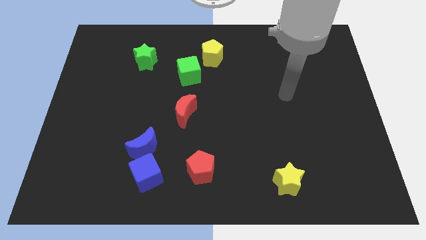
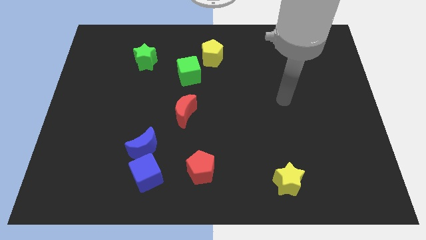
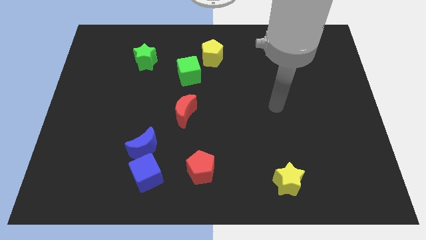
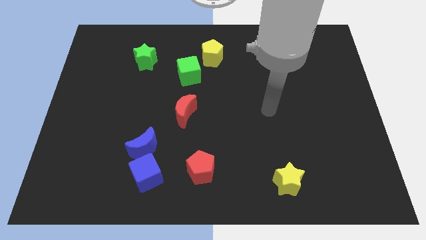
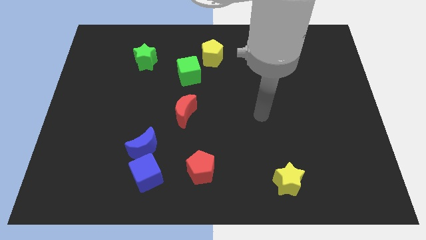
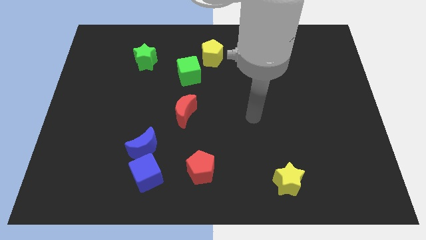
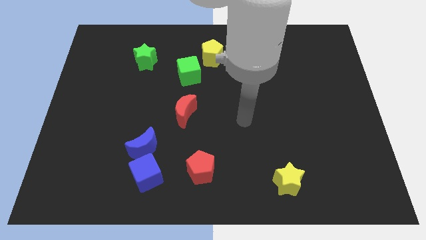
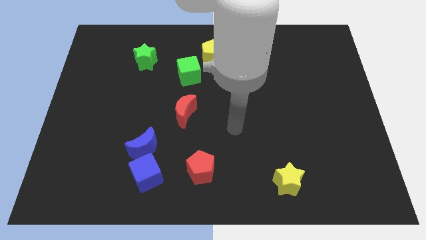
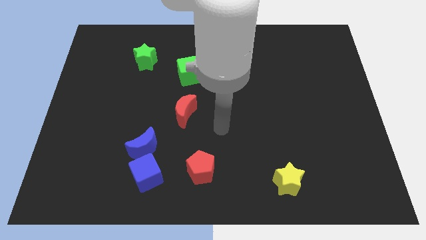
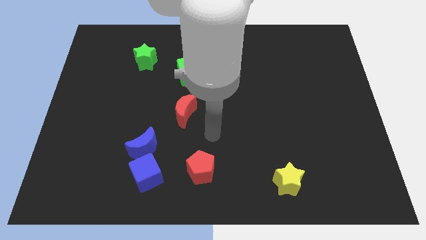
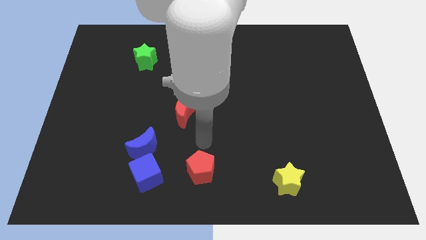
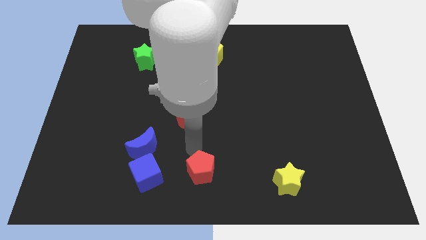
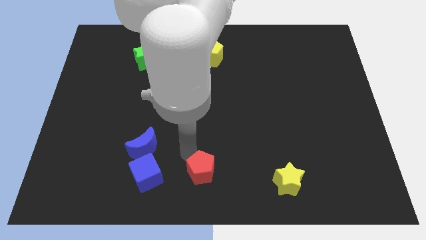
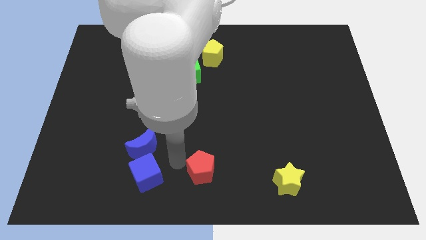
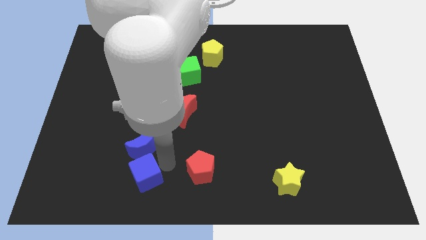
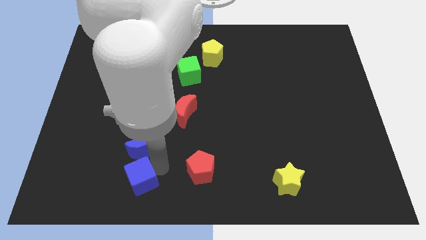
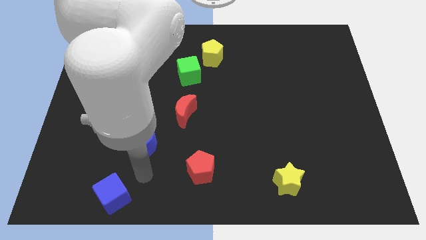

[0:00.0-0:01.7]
separate the blue moon from the blue cube

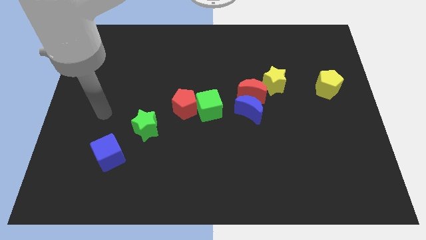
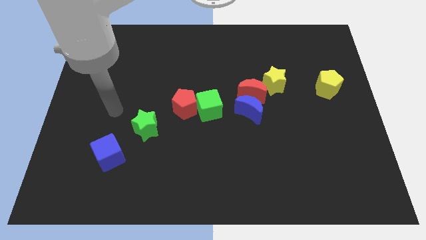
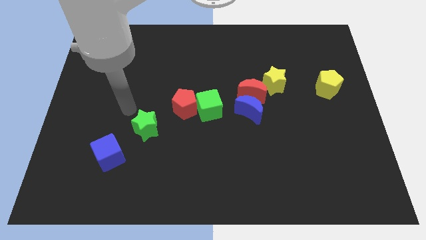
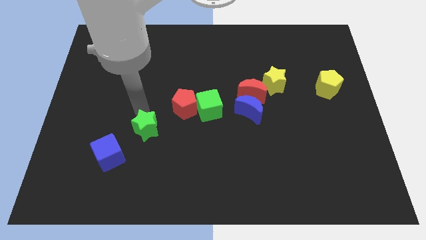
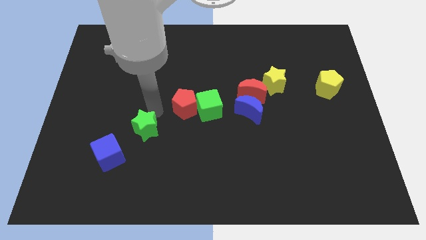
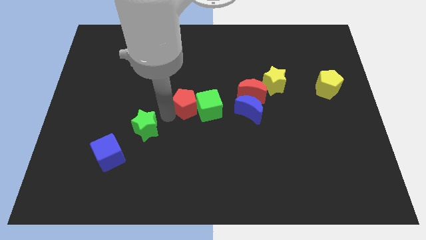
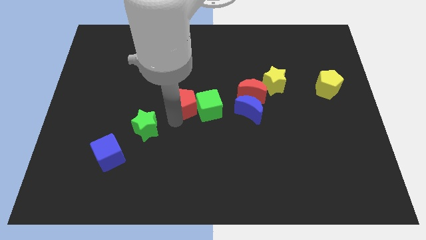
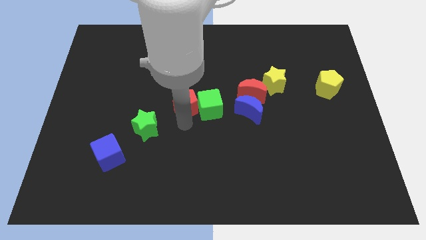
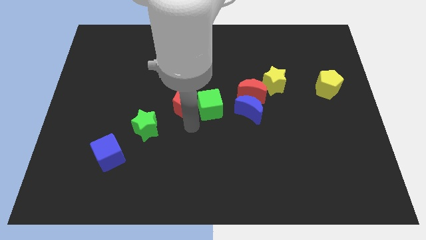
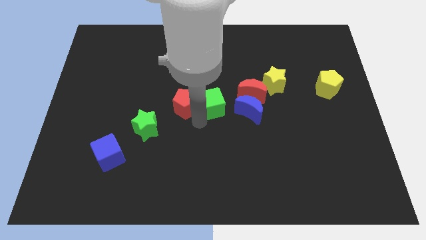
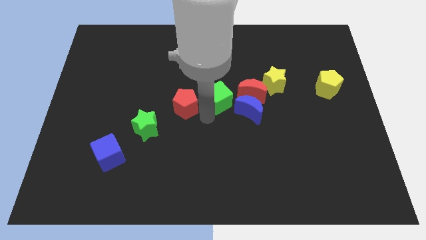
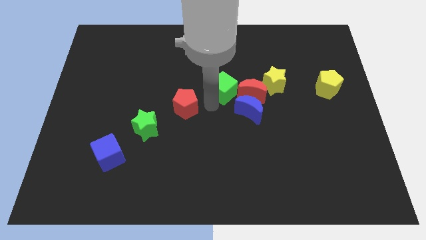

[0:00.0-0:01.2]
move the red pentagon away from the green cube

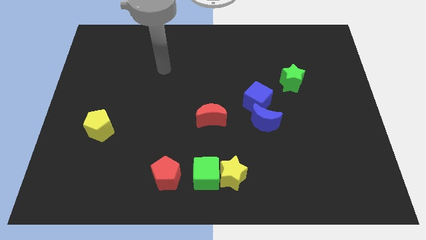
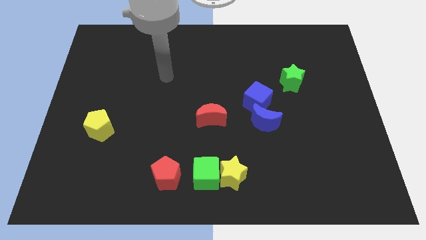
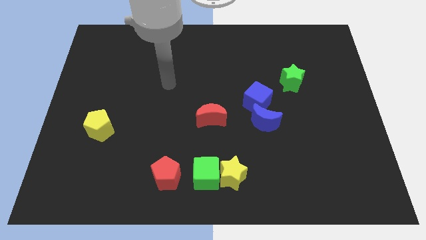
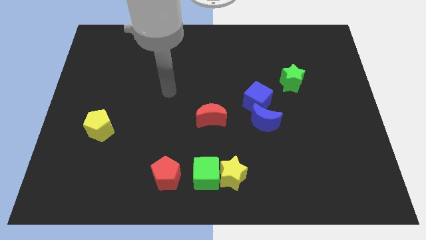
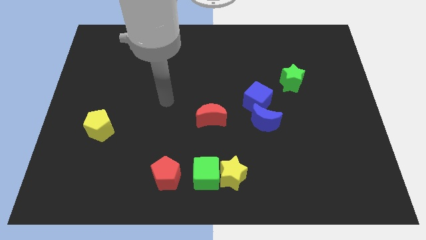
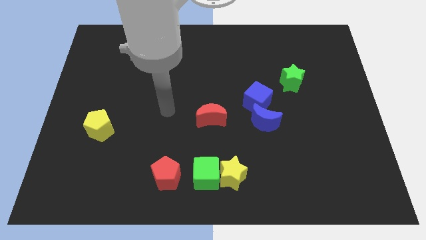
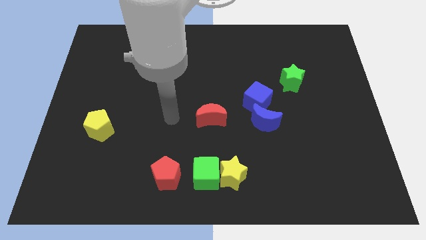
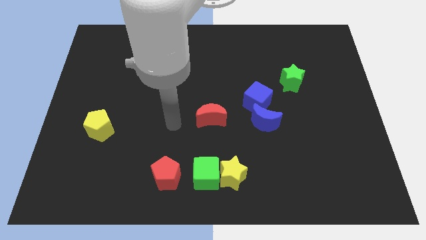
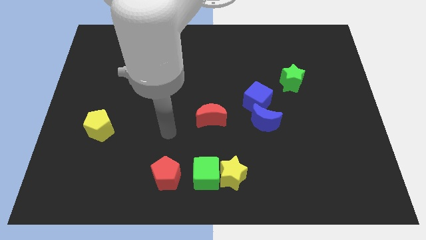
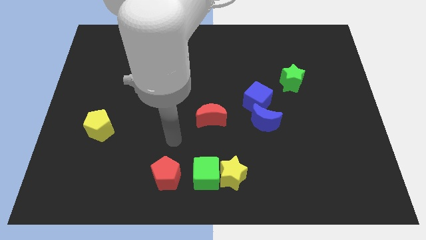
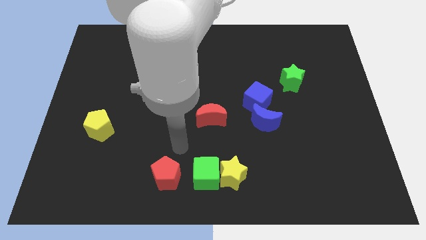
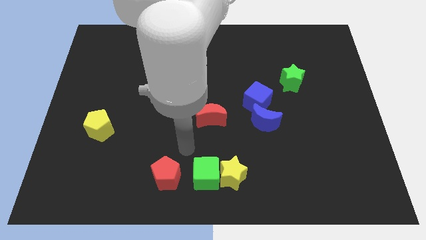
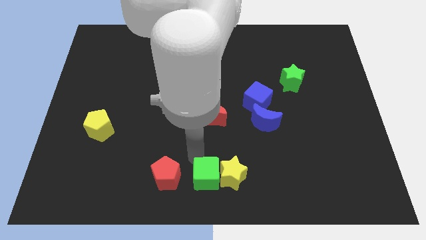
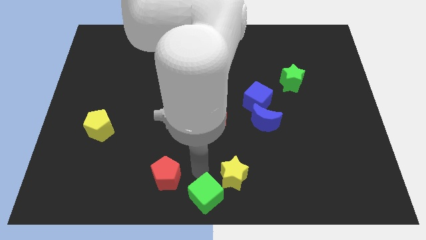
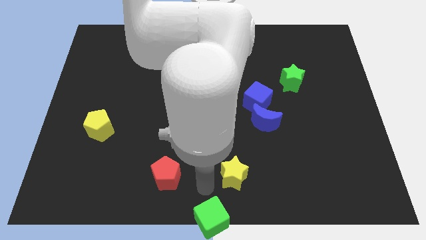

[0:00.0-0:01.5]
move the yellow star away from the green cube

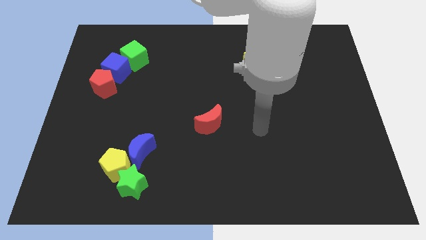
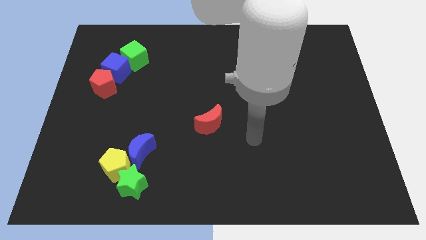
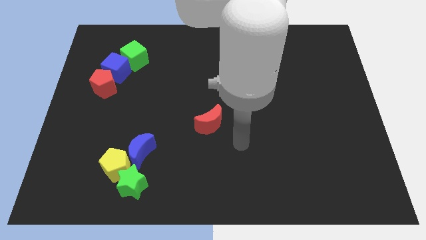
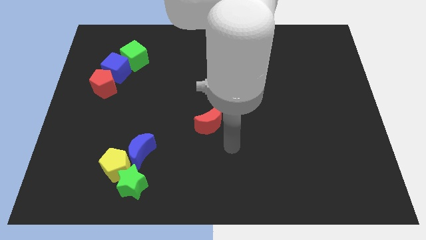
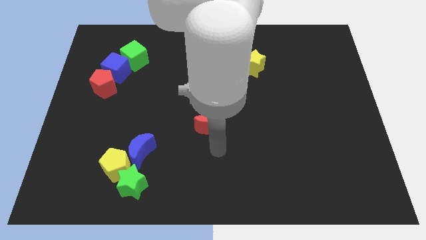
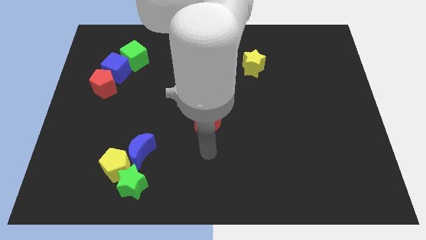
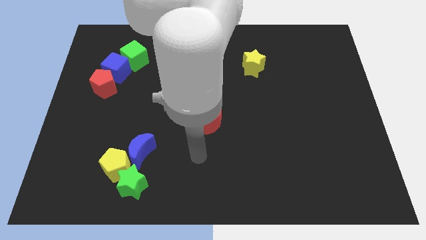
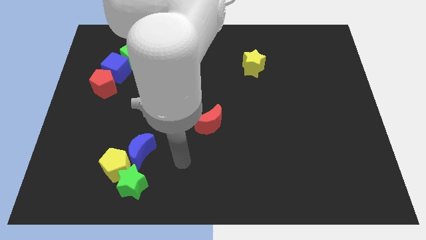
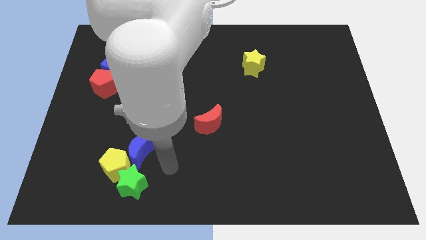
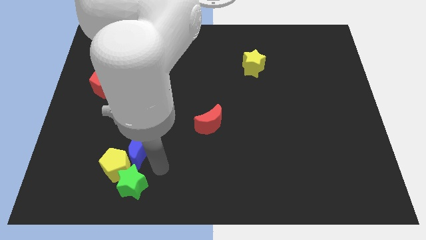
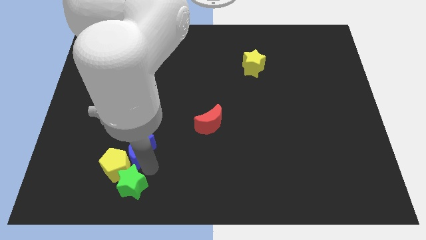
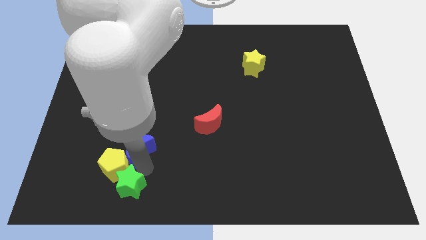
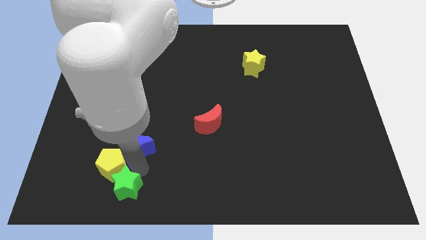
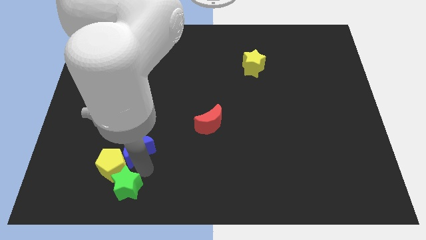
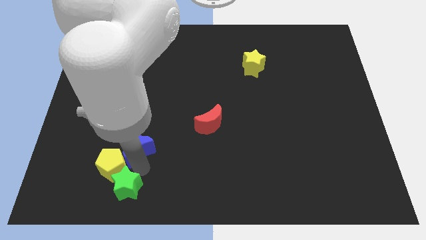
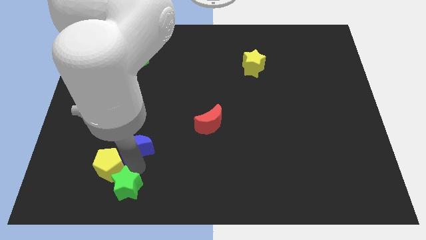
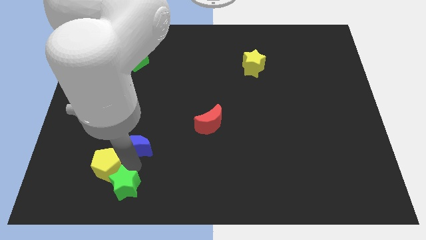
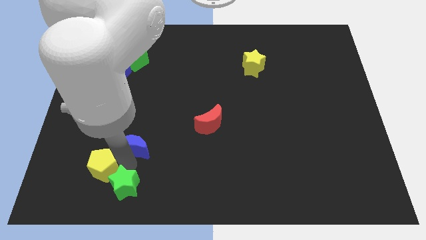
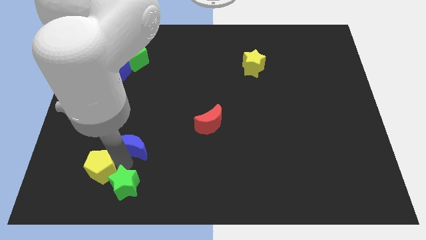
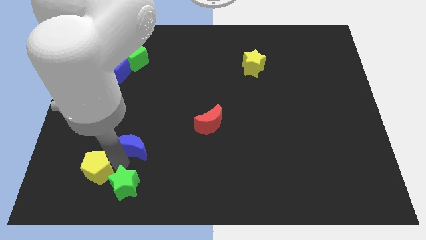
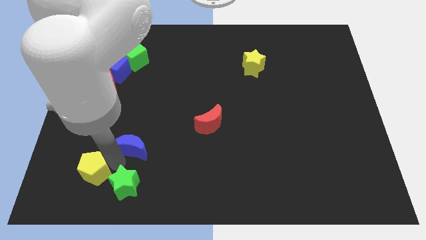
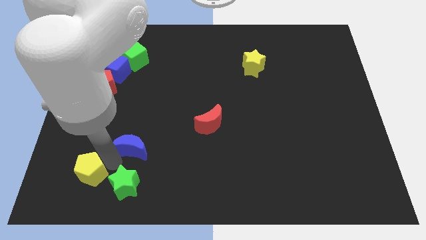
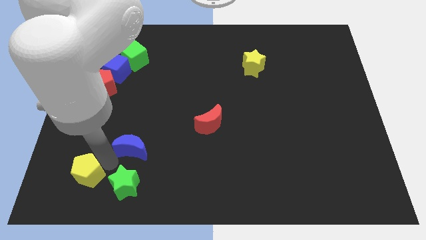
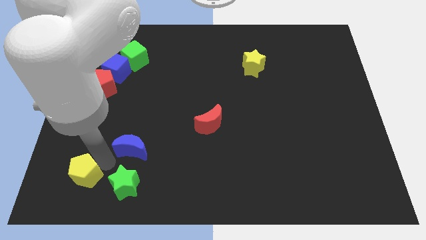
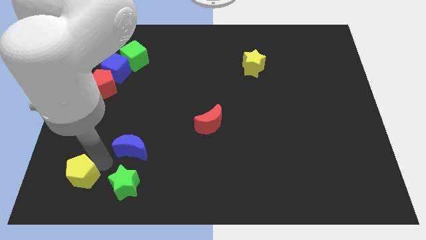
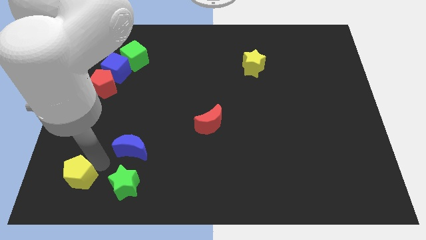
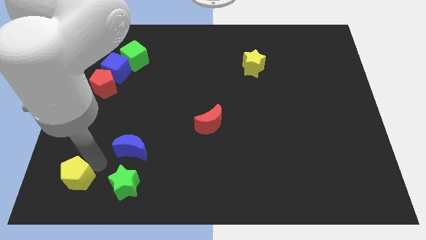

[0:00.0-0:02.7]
pull the yellow pentagon apart from the green star and blue moon

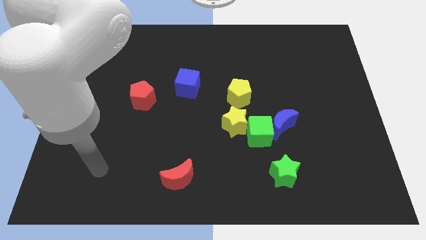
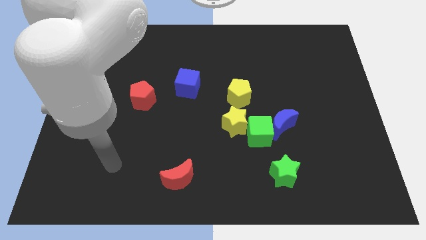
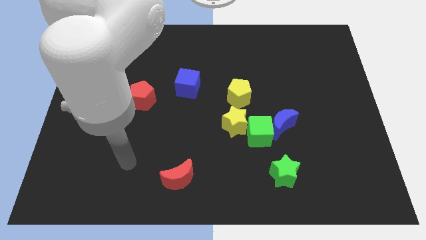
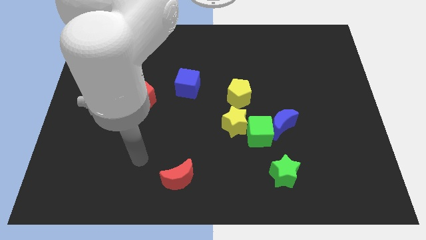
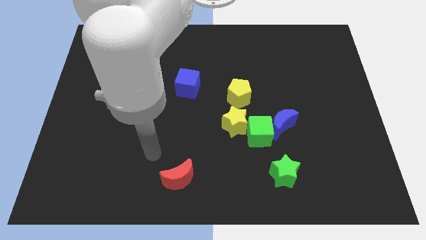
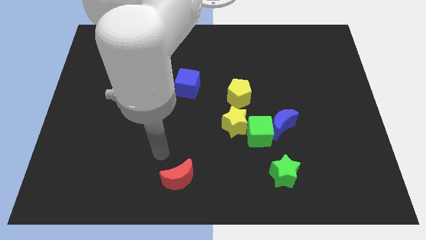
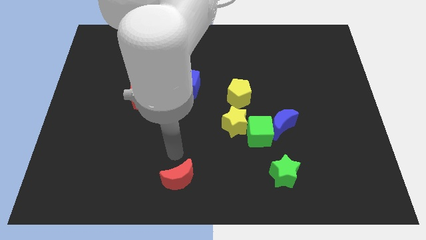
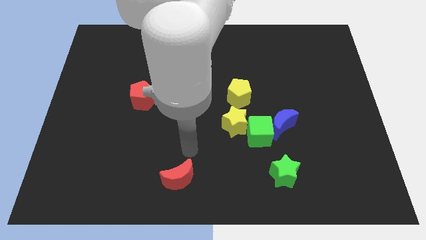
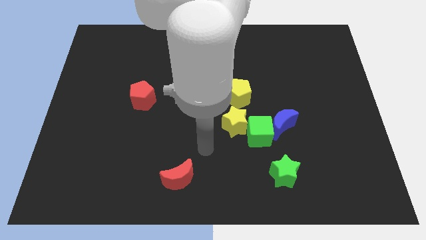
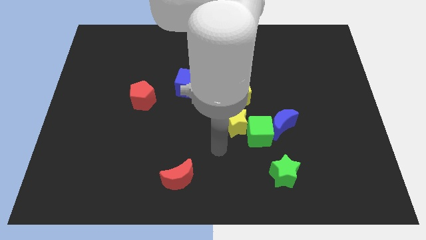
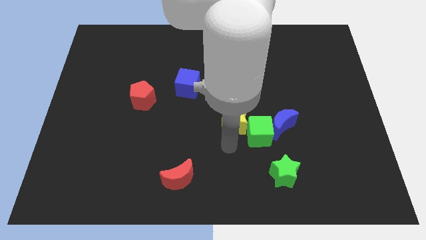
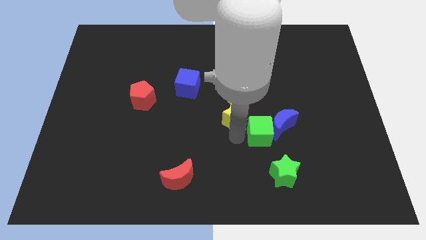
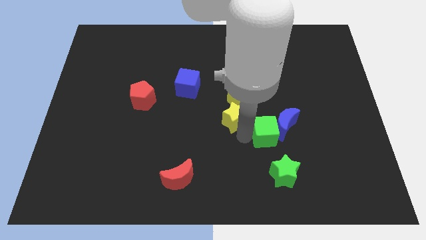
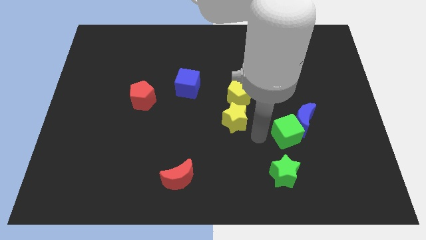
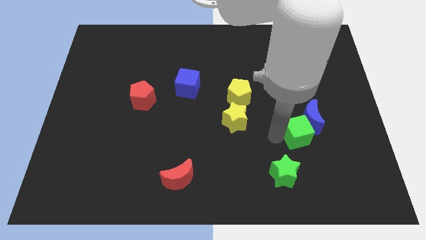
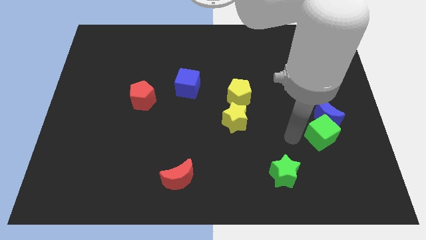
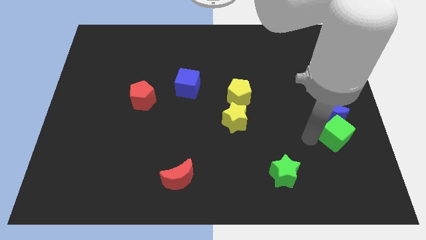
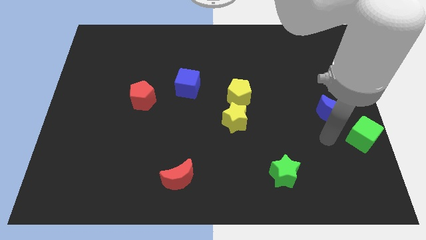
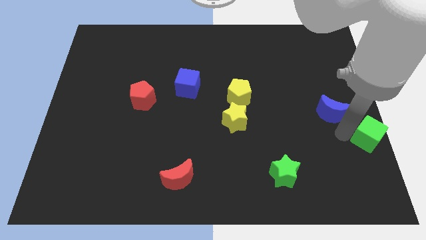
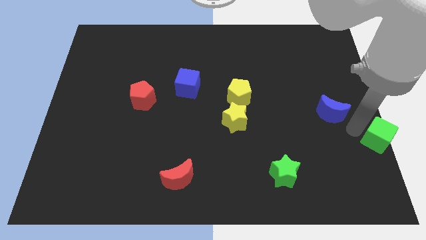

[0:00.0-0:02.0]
separate the blue moon from the green cube

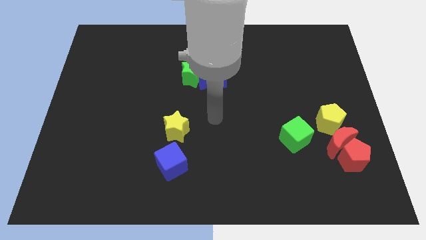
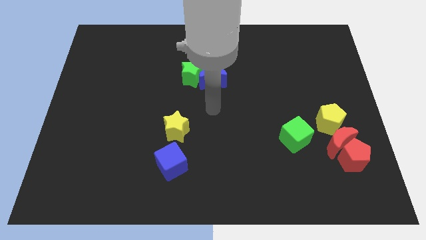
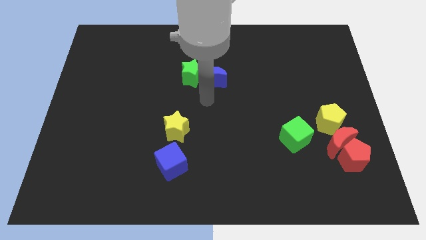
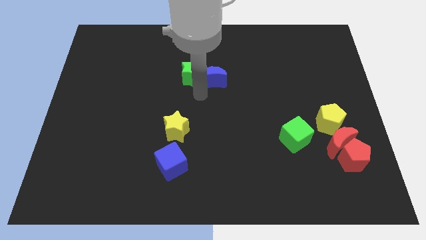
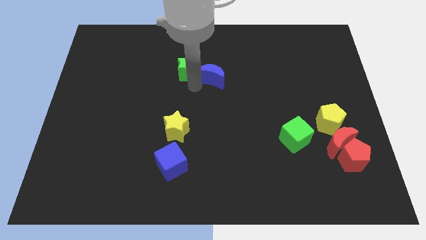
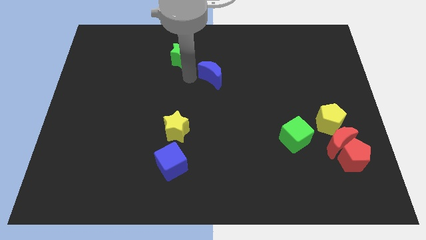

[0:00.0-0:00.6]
pull the blue moon apart from the green star
